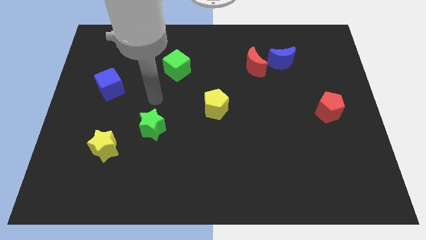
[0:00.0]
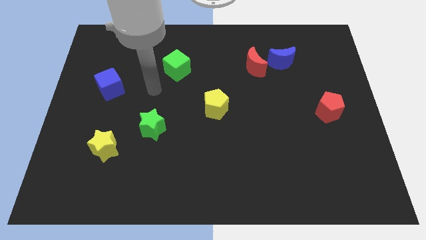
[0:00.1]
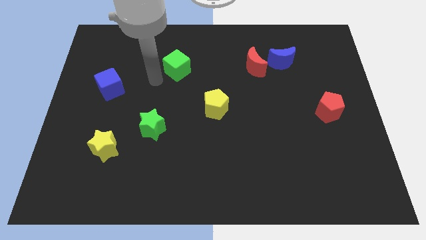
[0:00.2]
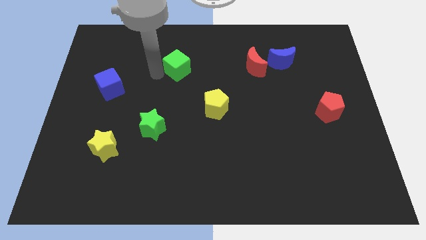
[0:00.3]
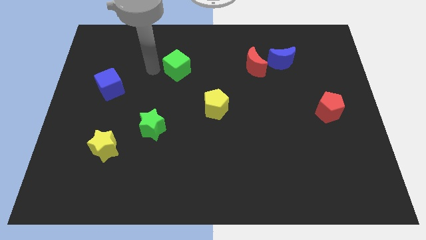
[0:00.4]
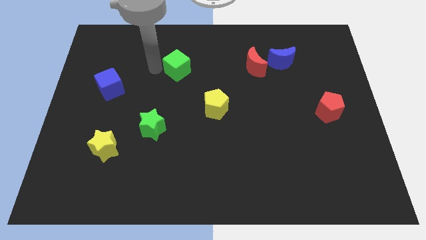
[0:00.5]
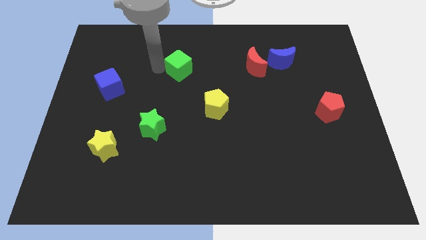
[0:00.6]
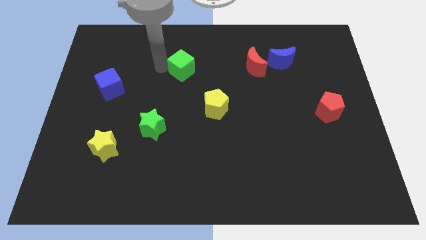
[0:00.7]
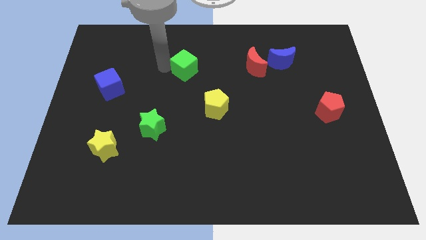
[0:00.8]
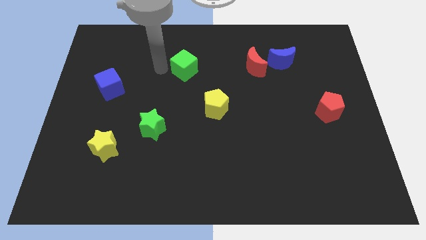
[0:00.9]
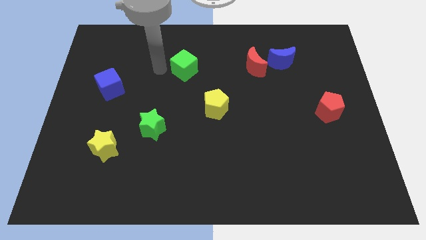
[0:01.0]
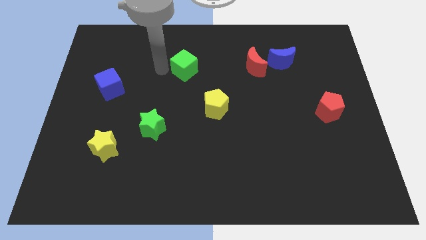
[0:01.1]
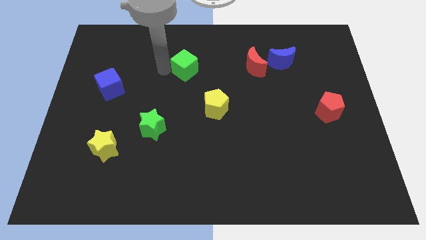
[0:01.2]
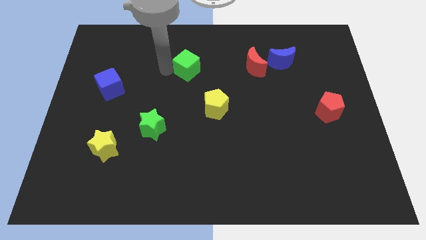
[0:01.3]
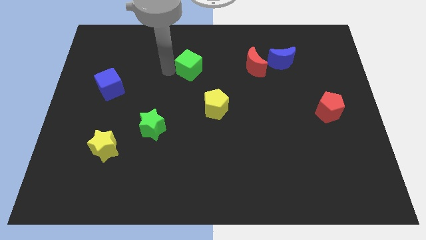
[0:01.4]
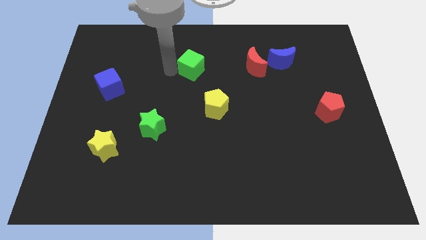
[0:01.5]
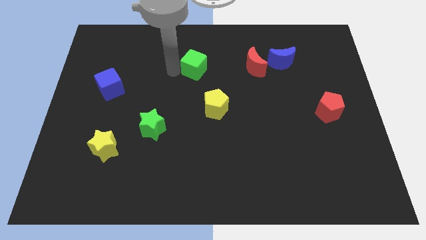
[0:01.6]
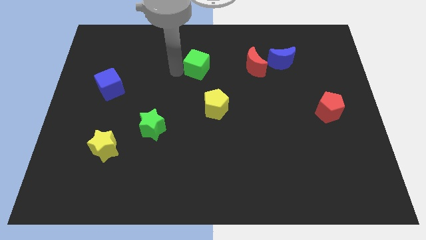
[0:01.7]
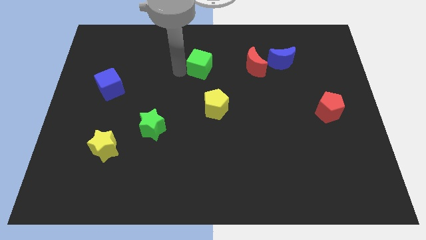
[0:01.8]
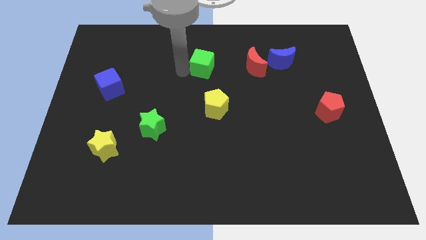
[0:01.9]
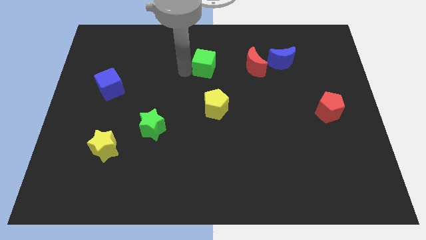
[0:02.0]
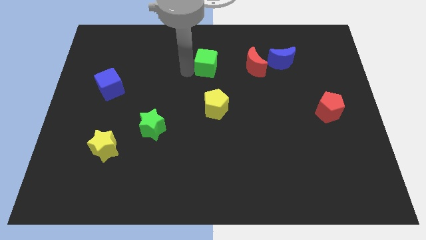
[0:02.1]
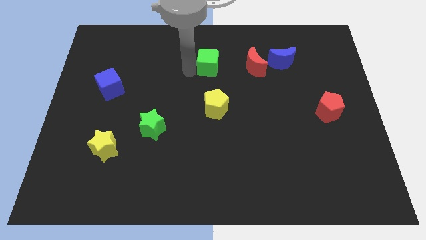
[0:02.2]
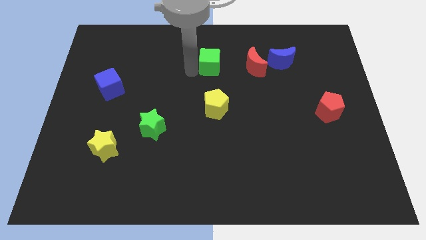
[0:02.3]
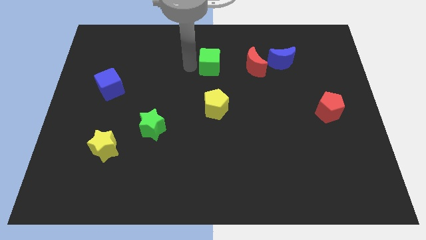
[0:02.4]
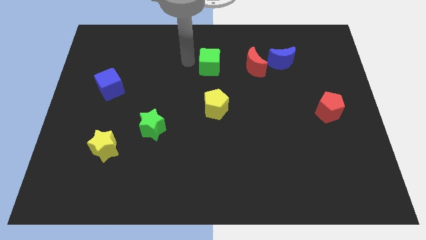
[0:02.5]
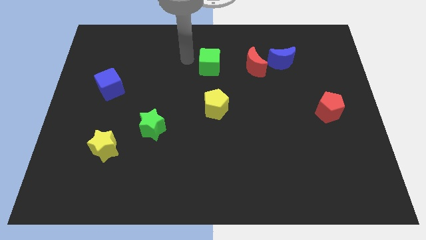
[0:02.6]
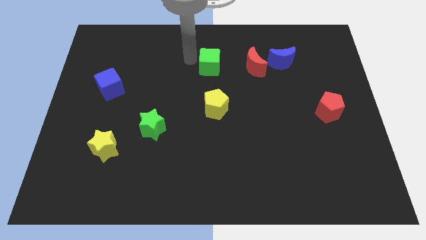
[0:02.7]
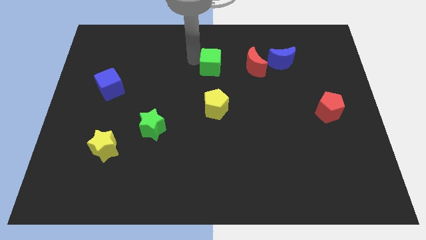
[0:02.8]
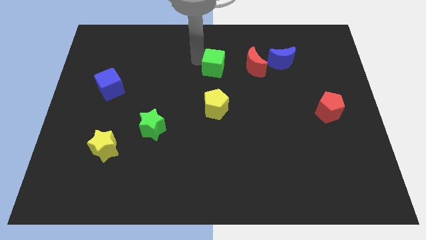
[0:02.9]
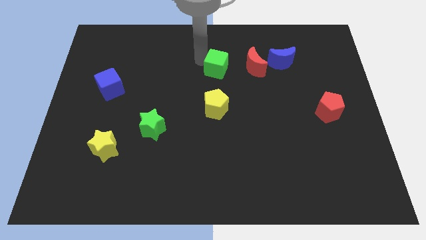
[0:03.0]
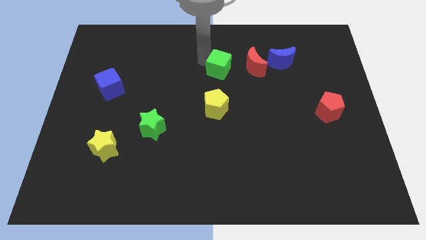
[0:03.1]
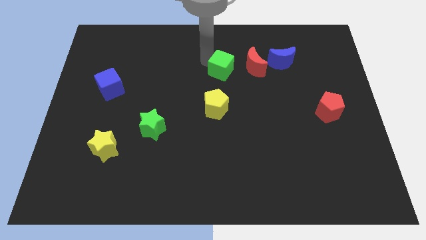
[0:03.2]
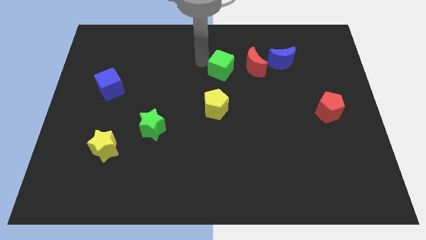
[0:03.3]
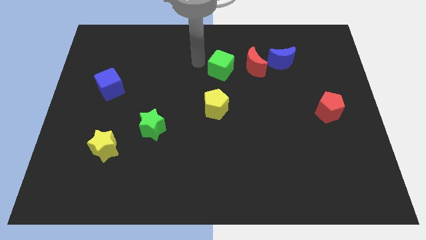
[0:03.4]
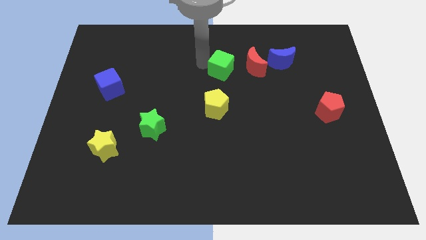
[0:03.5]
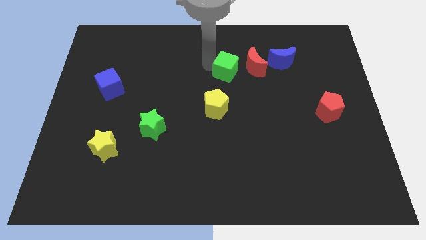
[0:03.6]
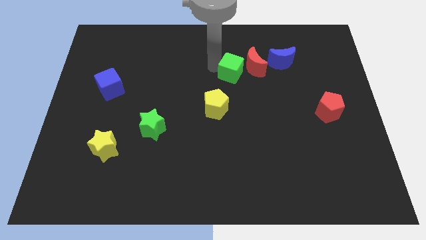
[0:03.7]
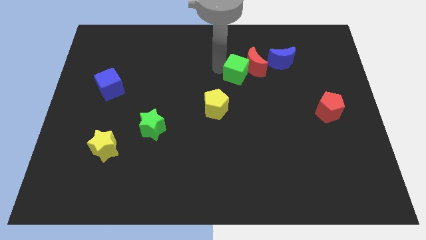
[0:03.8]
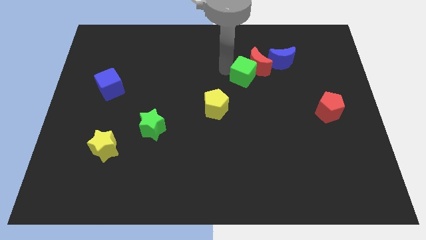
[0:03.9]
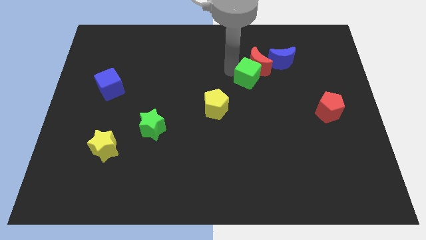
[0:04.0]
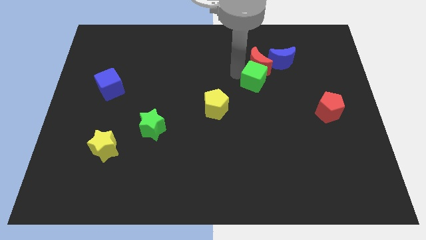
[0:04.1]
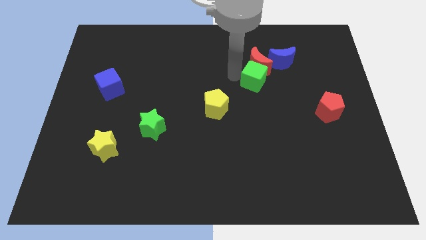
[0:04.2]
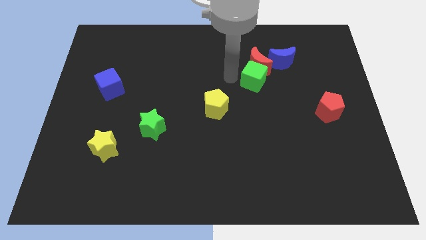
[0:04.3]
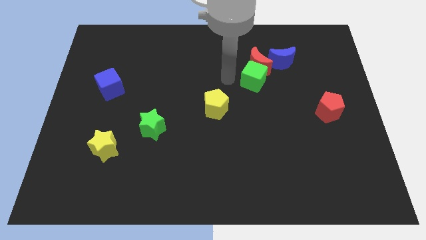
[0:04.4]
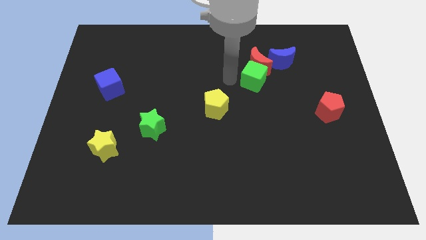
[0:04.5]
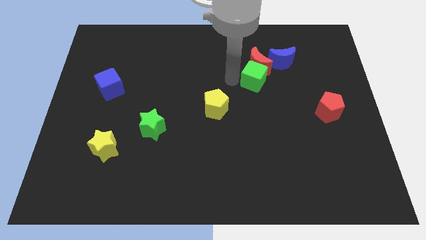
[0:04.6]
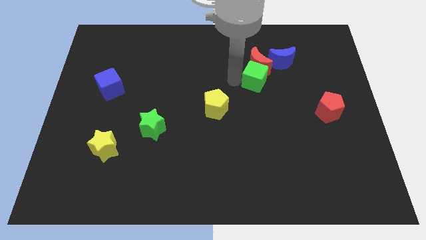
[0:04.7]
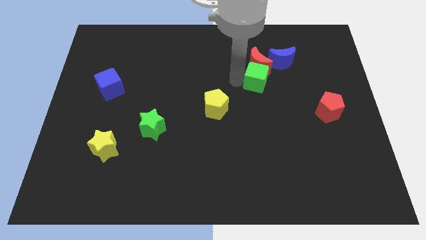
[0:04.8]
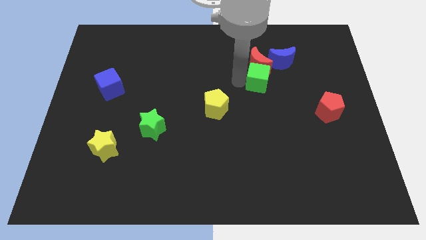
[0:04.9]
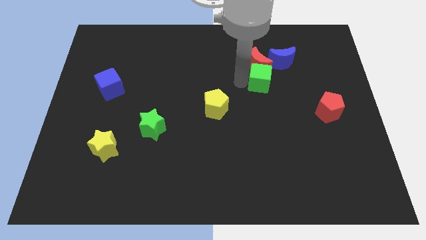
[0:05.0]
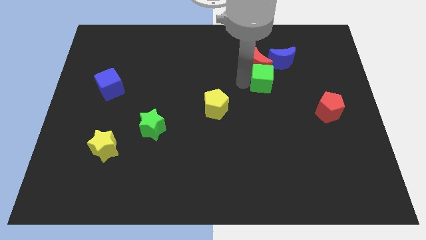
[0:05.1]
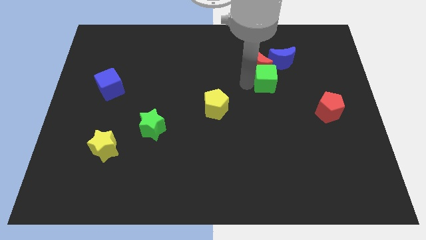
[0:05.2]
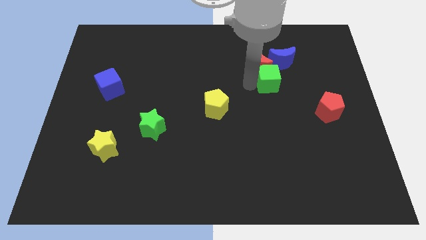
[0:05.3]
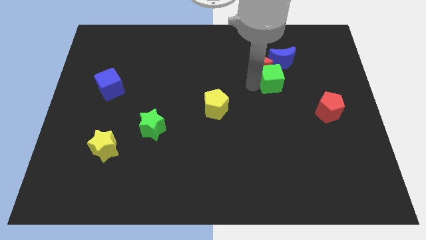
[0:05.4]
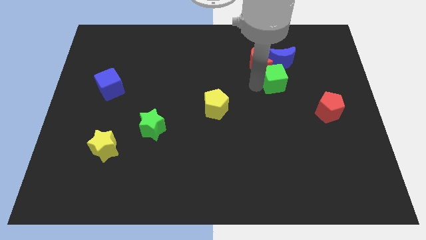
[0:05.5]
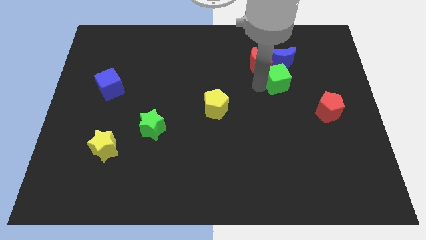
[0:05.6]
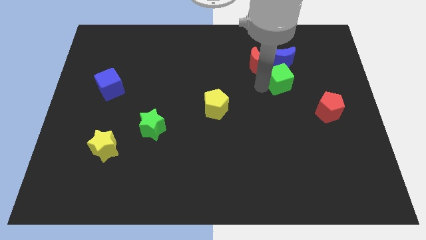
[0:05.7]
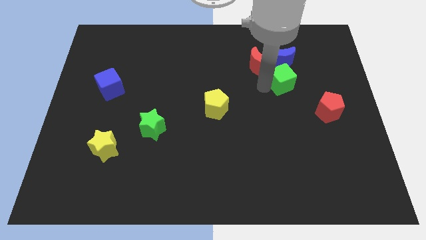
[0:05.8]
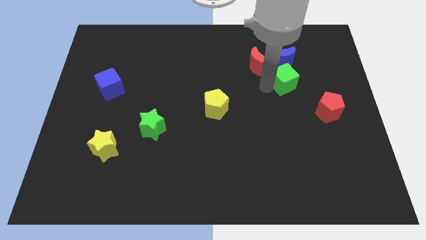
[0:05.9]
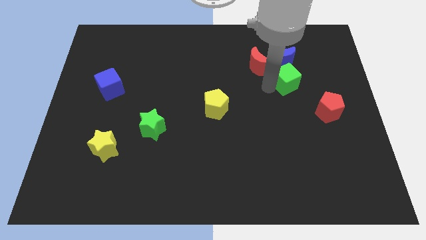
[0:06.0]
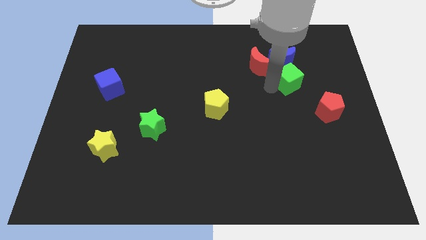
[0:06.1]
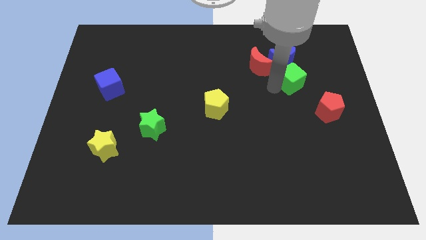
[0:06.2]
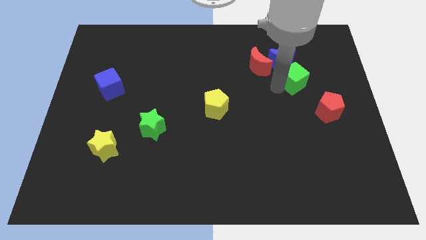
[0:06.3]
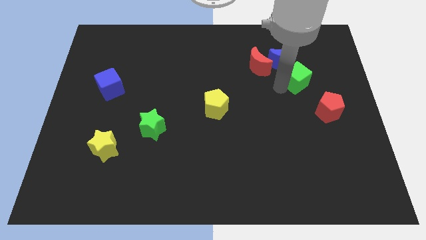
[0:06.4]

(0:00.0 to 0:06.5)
push the green cube right of the red moon
